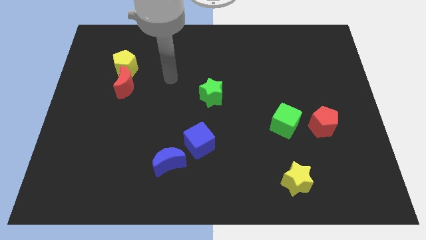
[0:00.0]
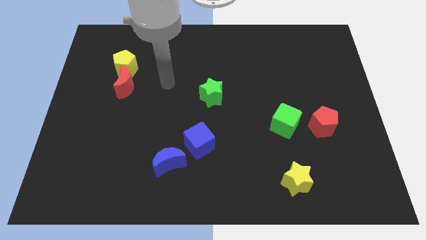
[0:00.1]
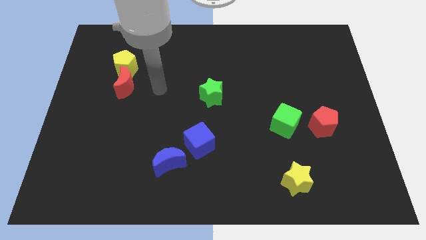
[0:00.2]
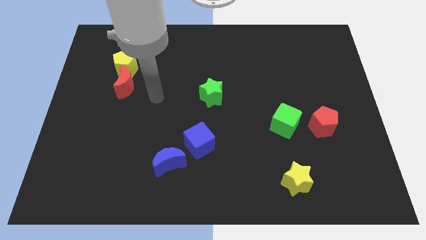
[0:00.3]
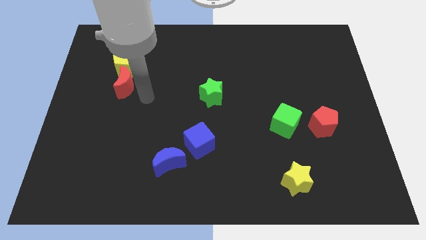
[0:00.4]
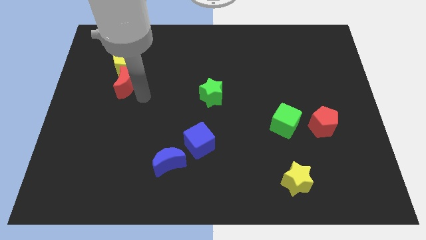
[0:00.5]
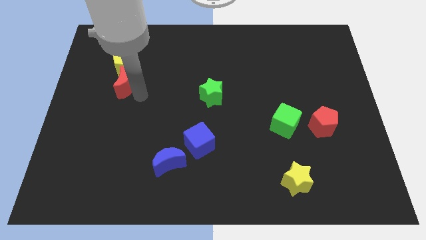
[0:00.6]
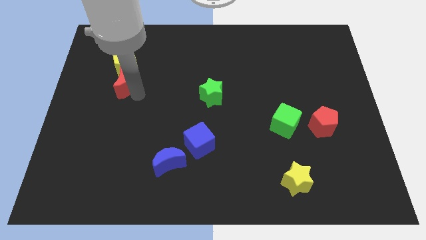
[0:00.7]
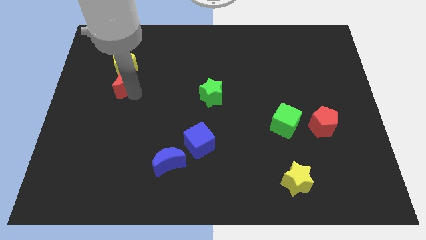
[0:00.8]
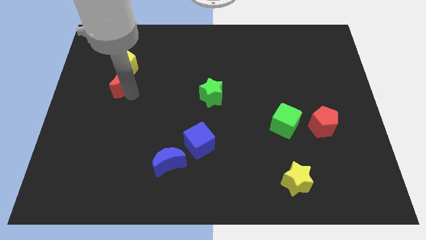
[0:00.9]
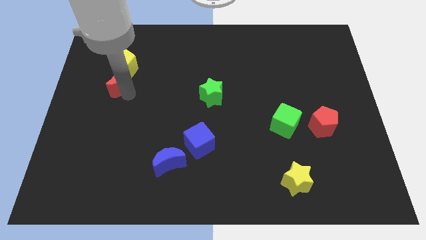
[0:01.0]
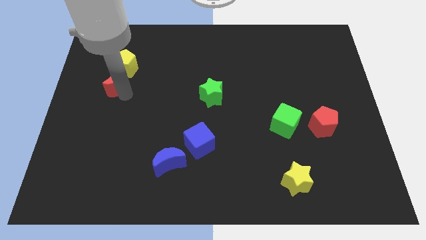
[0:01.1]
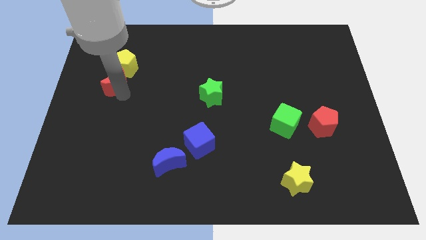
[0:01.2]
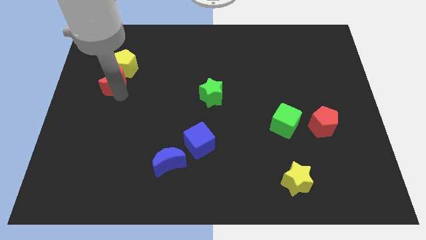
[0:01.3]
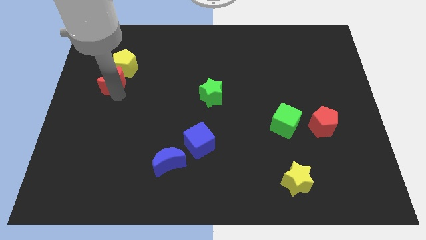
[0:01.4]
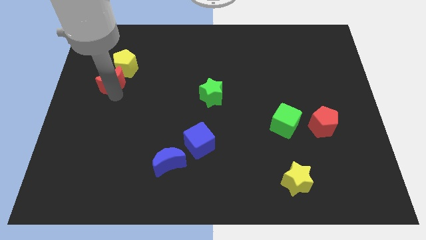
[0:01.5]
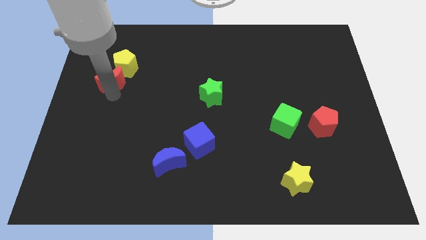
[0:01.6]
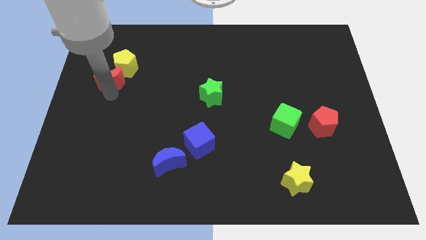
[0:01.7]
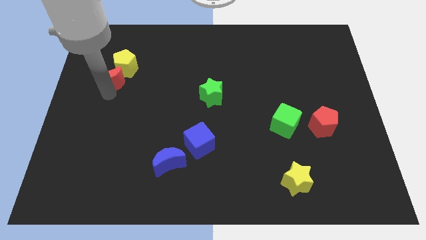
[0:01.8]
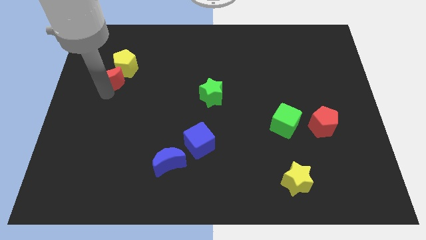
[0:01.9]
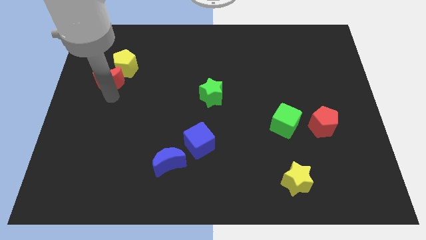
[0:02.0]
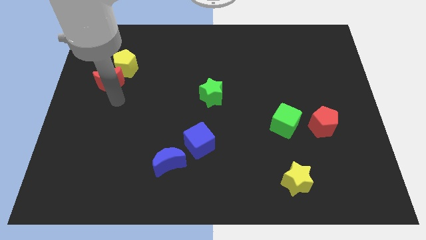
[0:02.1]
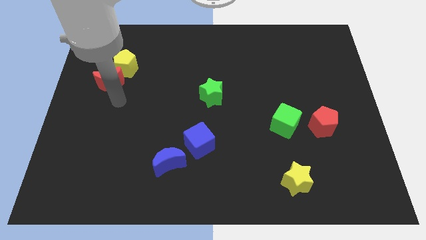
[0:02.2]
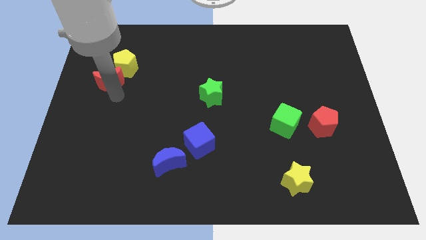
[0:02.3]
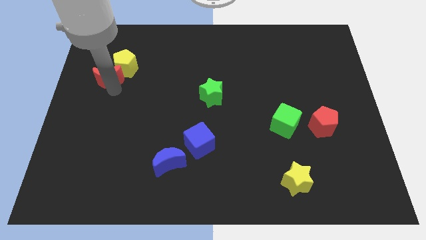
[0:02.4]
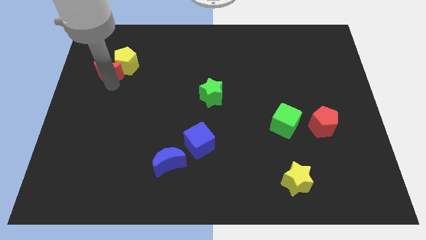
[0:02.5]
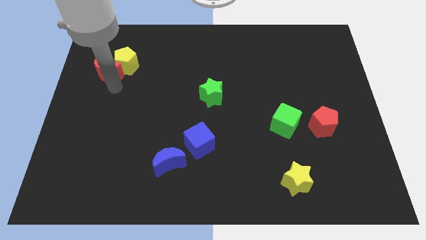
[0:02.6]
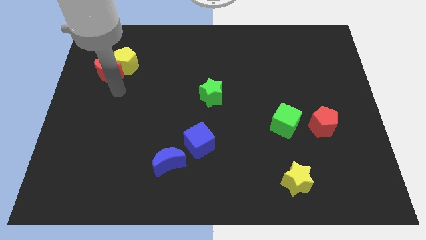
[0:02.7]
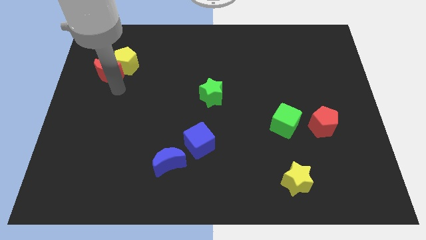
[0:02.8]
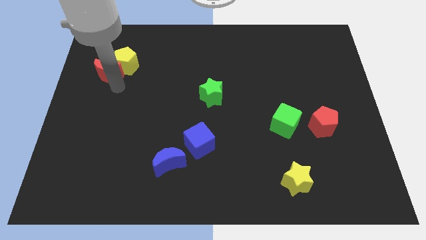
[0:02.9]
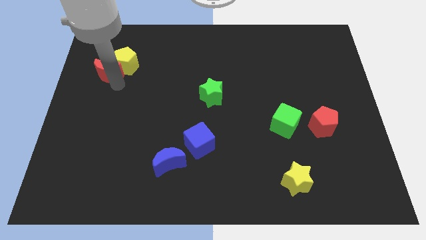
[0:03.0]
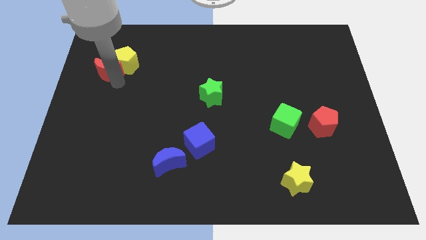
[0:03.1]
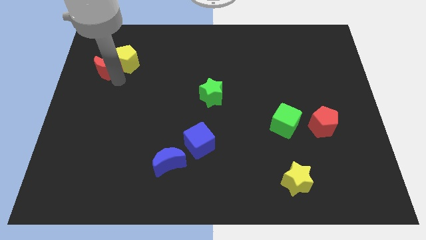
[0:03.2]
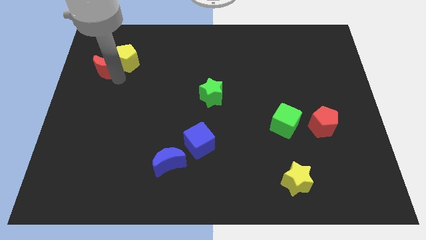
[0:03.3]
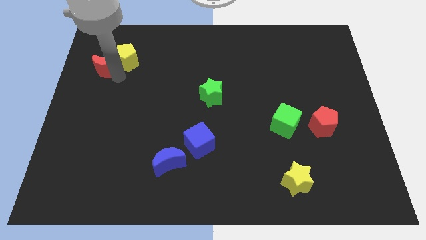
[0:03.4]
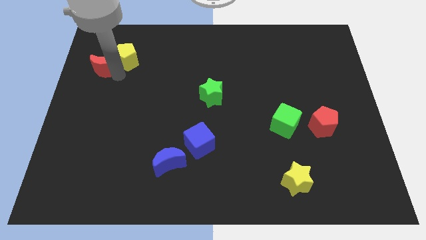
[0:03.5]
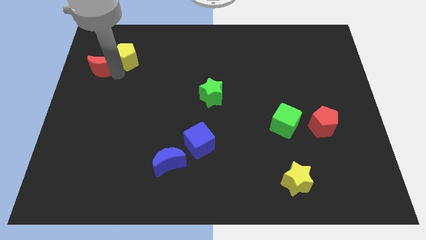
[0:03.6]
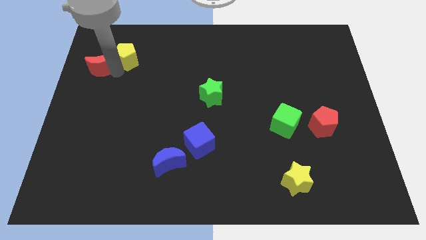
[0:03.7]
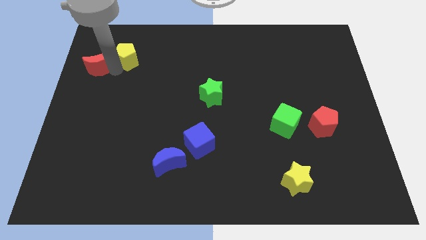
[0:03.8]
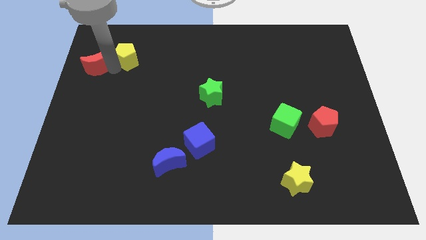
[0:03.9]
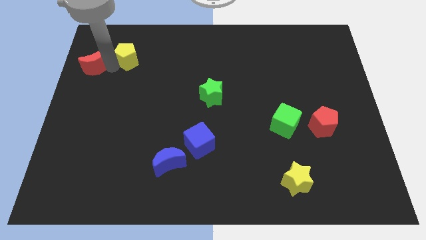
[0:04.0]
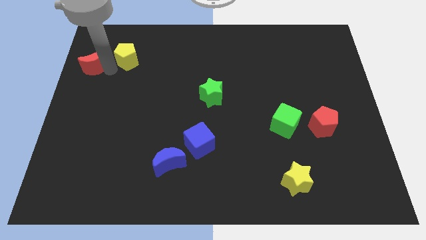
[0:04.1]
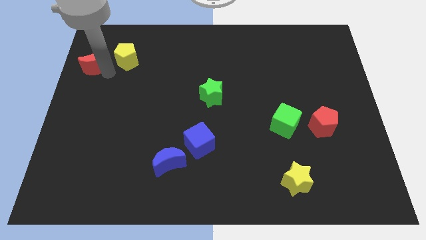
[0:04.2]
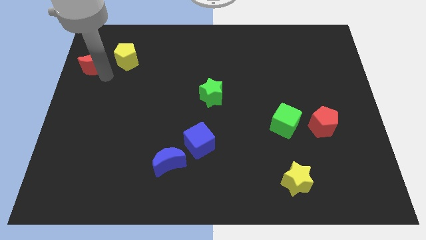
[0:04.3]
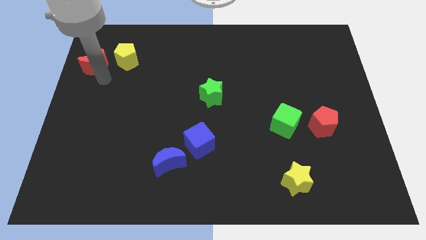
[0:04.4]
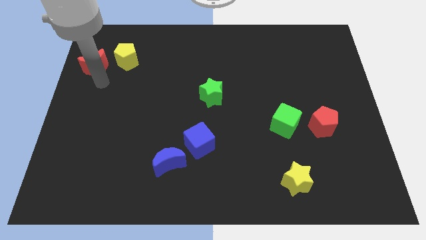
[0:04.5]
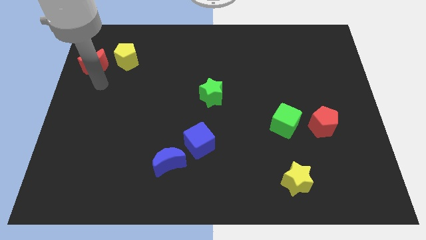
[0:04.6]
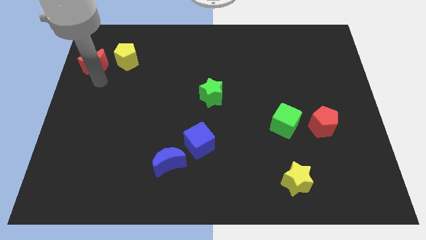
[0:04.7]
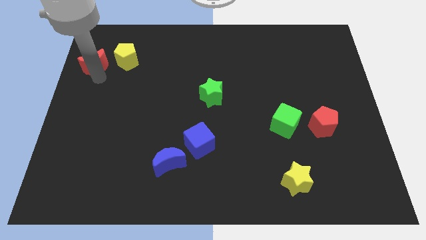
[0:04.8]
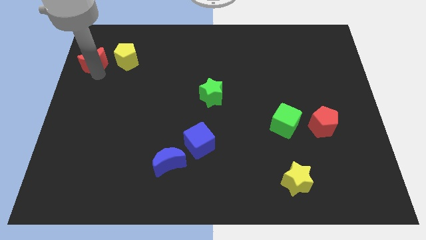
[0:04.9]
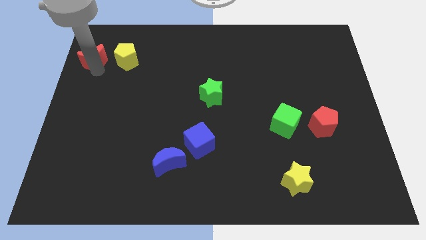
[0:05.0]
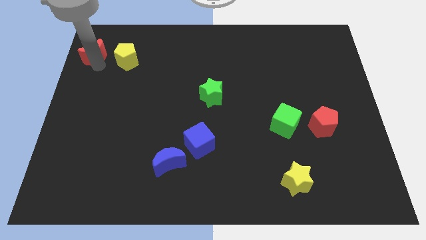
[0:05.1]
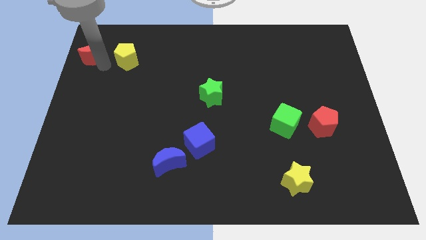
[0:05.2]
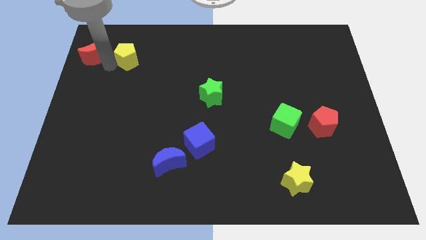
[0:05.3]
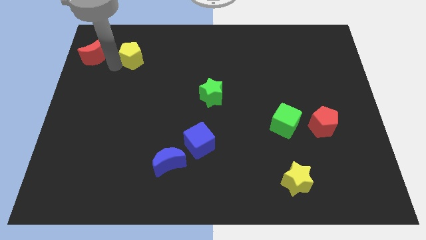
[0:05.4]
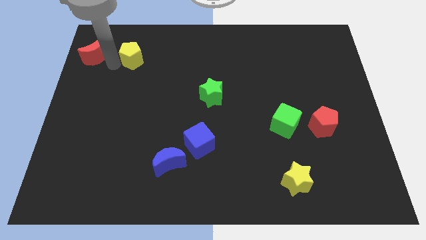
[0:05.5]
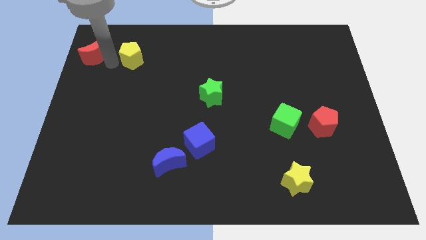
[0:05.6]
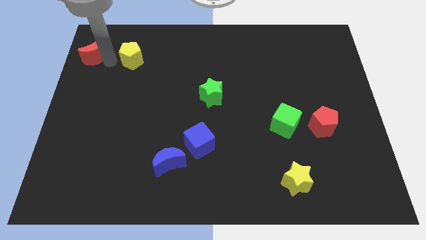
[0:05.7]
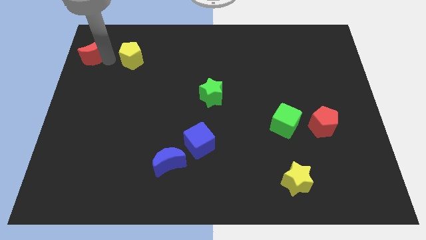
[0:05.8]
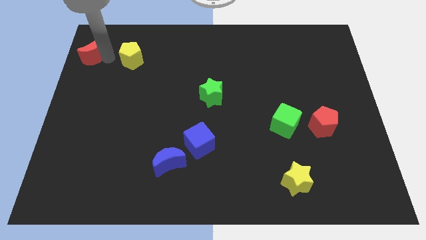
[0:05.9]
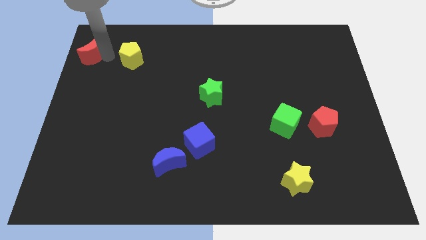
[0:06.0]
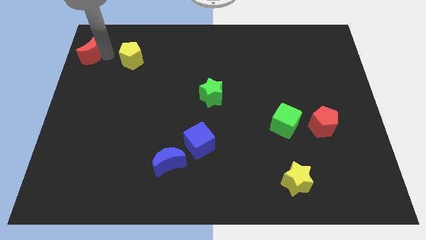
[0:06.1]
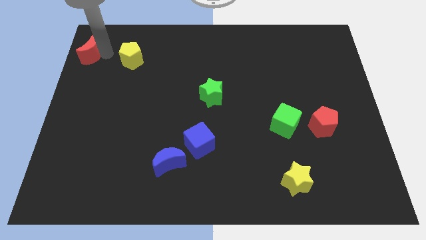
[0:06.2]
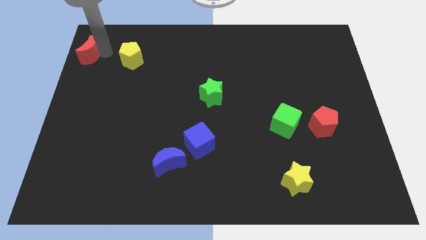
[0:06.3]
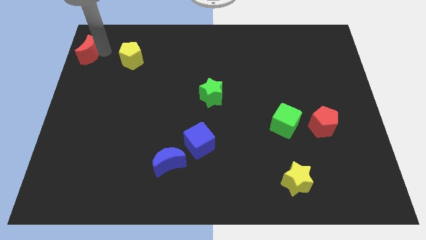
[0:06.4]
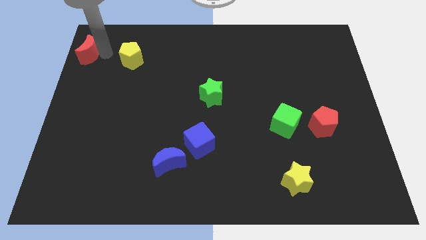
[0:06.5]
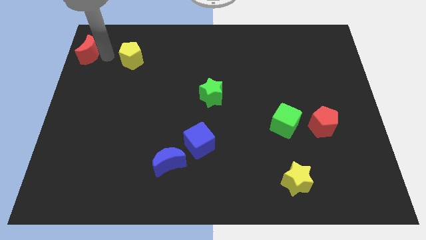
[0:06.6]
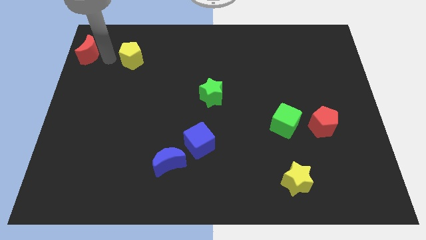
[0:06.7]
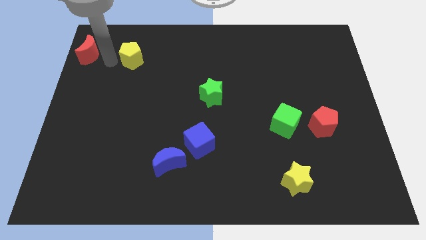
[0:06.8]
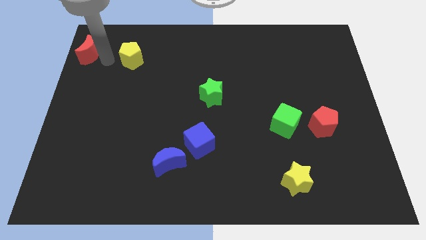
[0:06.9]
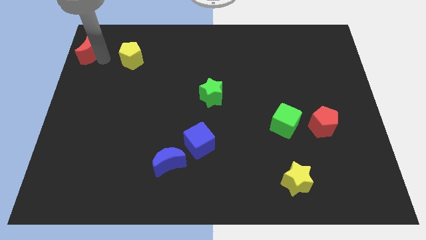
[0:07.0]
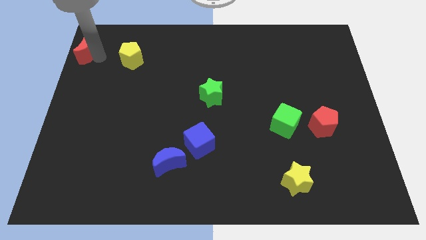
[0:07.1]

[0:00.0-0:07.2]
put the red moon to the top left
